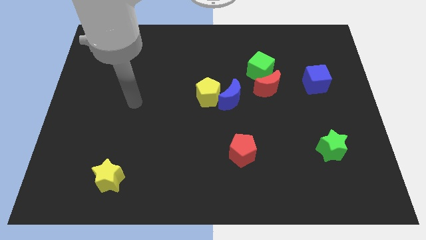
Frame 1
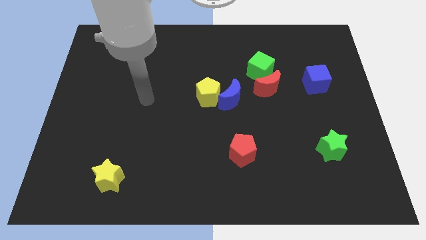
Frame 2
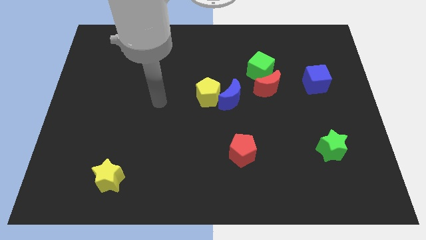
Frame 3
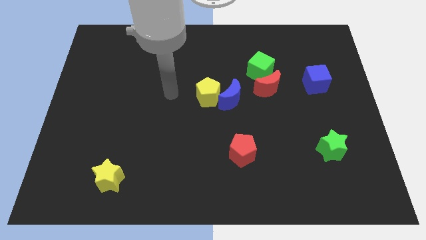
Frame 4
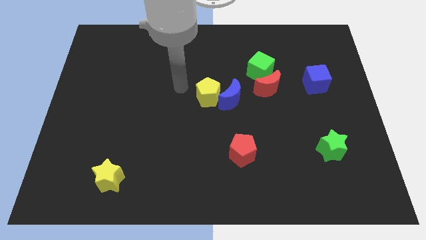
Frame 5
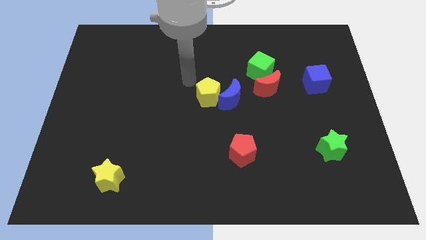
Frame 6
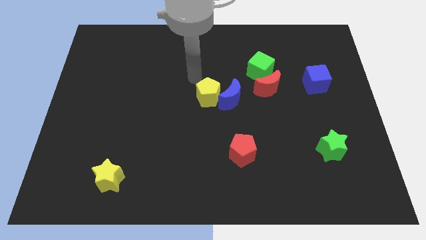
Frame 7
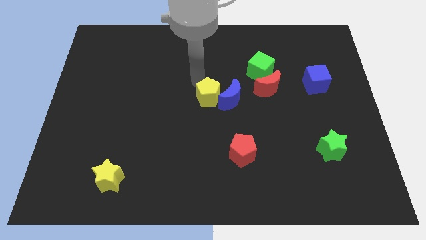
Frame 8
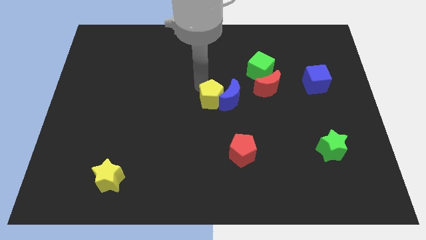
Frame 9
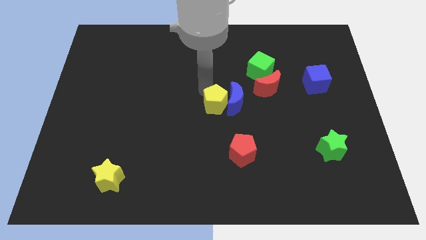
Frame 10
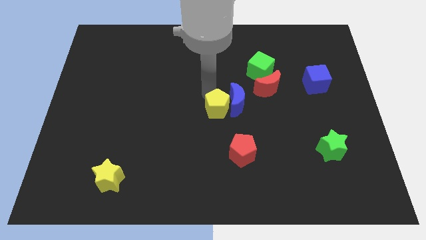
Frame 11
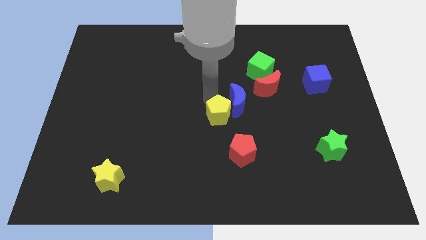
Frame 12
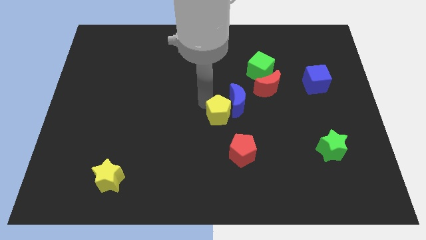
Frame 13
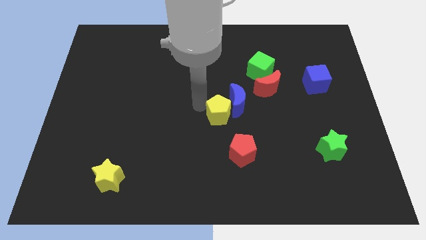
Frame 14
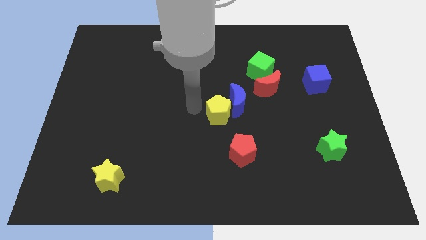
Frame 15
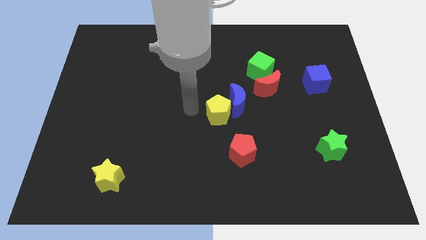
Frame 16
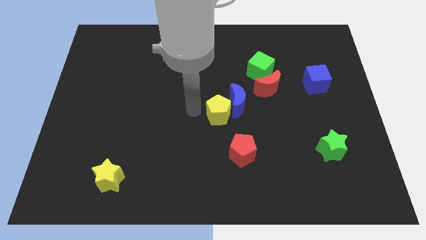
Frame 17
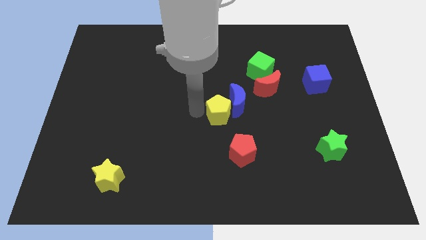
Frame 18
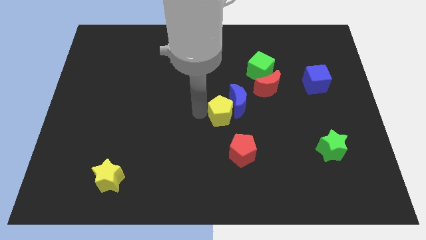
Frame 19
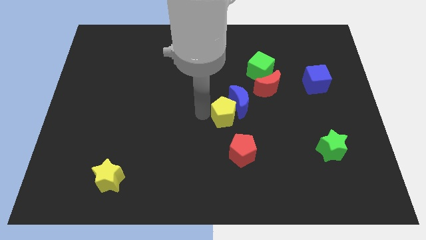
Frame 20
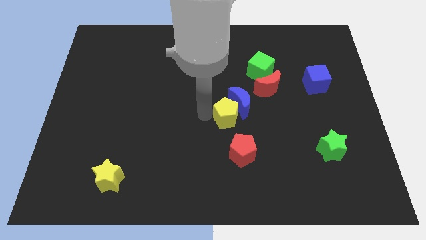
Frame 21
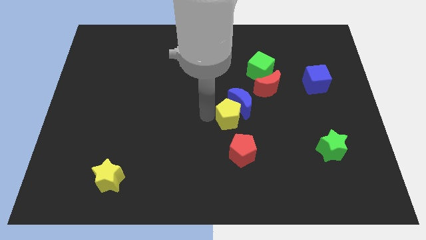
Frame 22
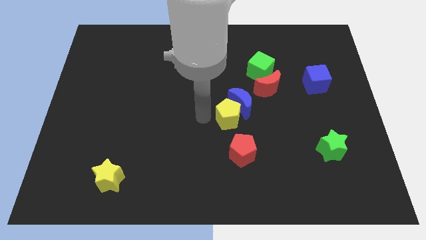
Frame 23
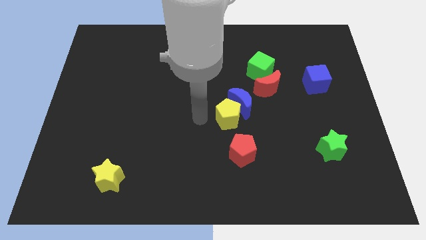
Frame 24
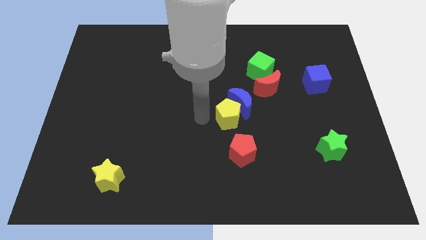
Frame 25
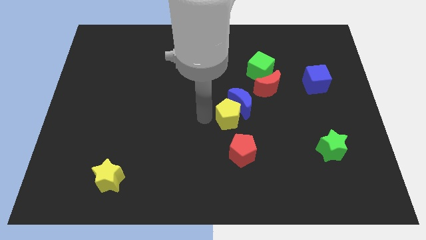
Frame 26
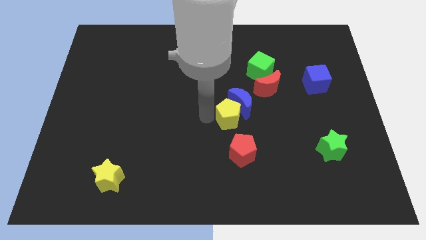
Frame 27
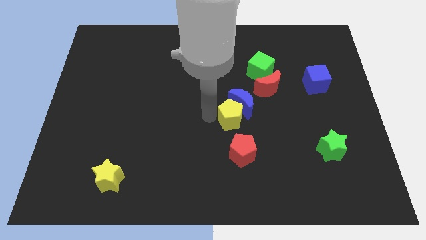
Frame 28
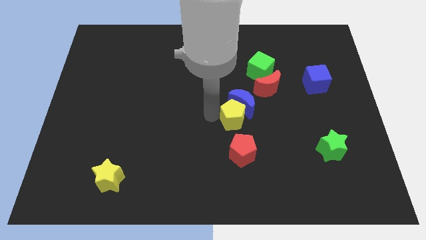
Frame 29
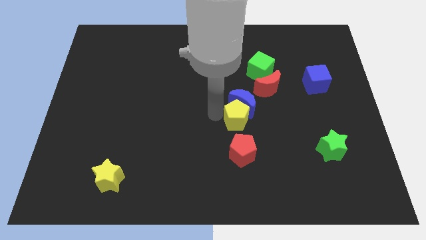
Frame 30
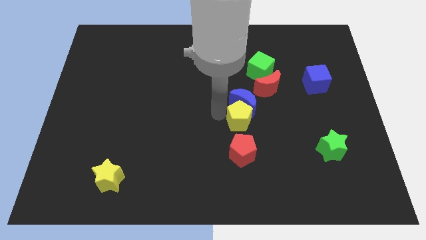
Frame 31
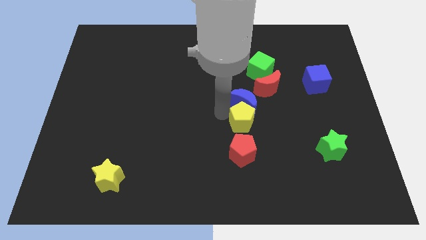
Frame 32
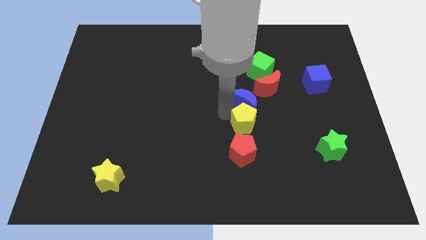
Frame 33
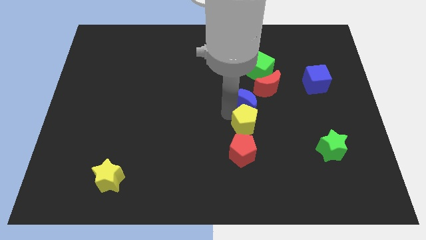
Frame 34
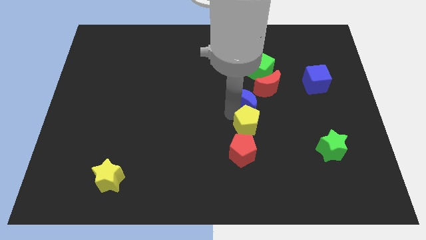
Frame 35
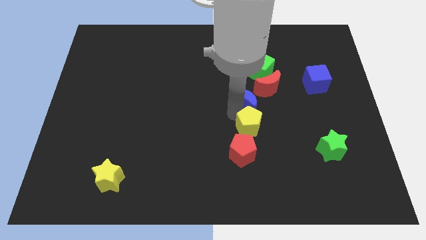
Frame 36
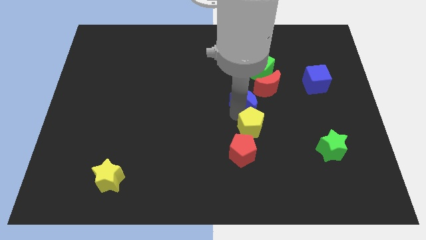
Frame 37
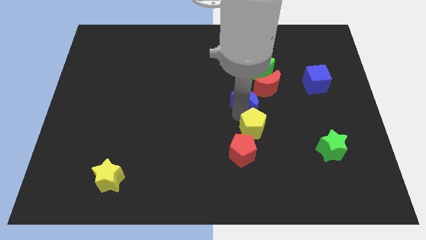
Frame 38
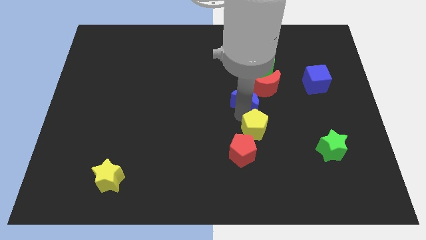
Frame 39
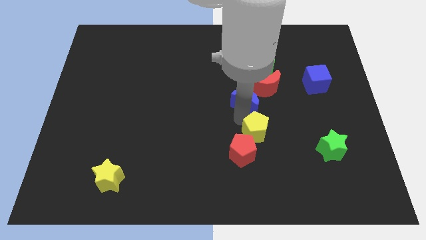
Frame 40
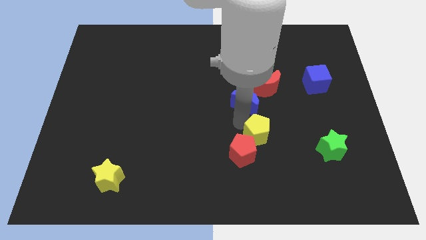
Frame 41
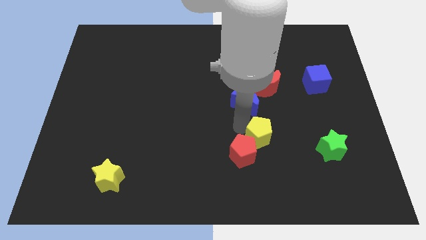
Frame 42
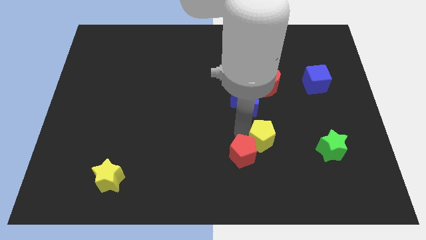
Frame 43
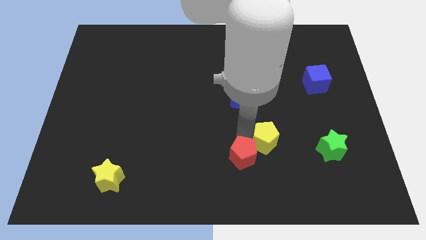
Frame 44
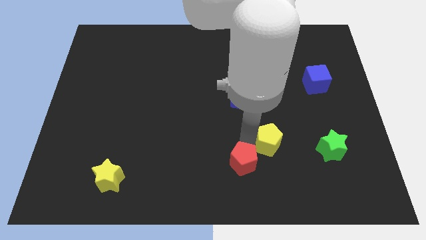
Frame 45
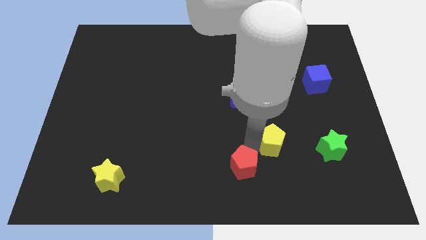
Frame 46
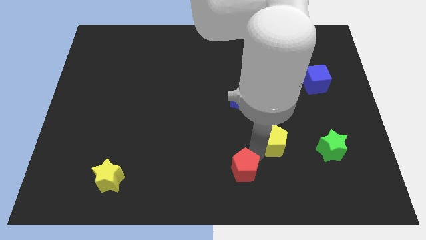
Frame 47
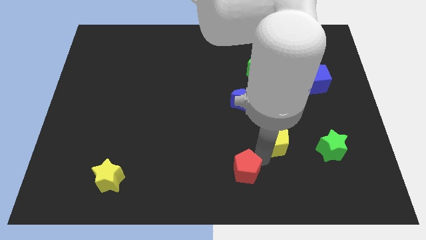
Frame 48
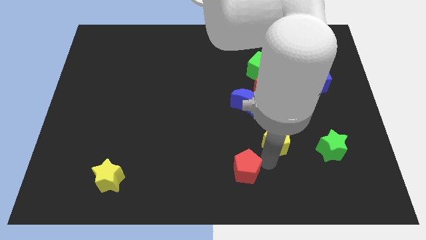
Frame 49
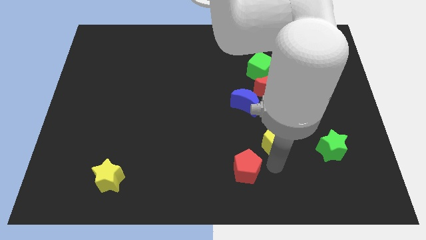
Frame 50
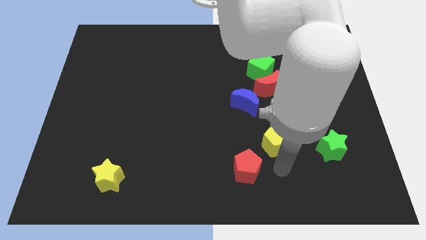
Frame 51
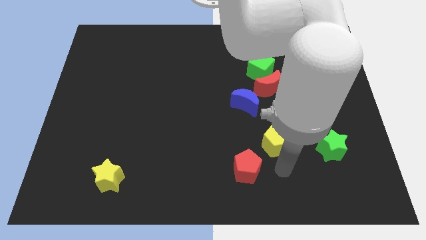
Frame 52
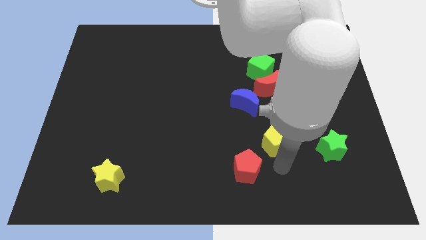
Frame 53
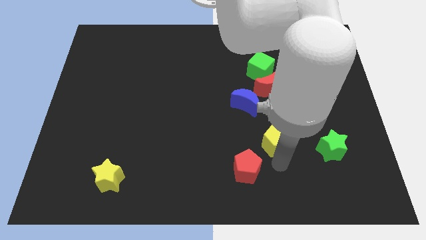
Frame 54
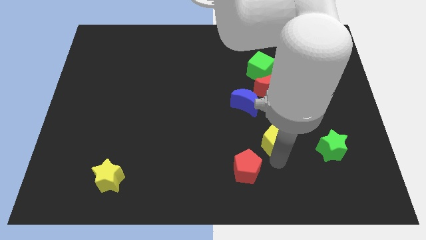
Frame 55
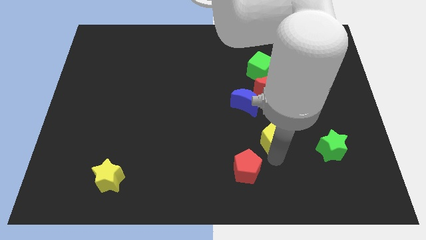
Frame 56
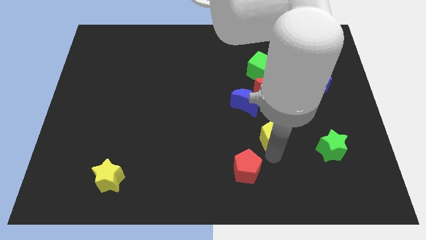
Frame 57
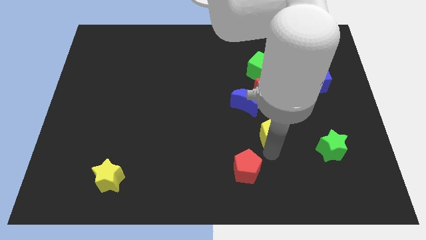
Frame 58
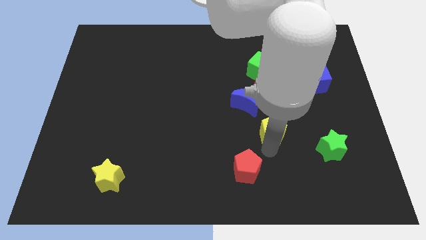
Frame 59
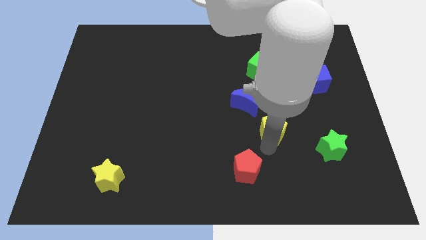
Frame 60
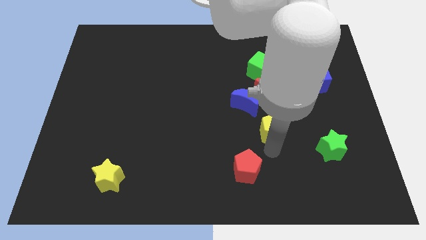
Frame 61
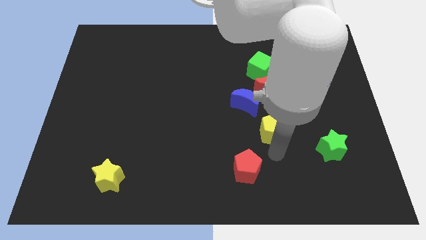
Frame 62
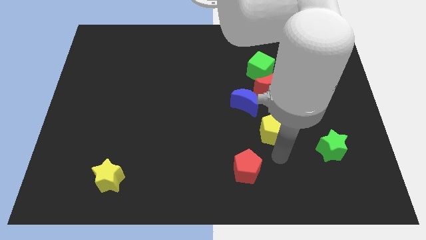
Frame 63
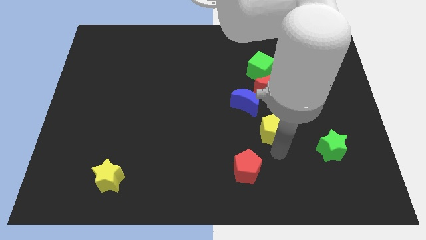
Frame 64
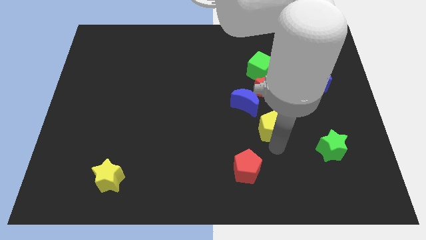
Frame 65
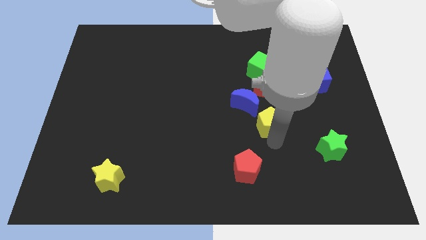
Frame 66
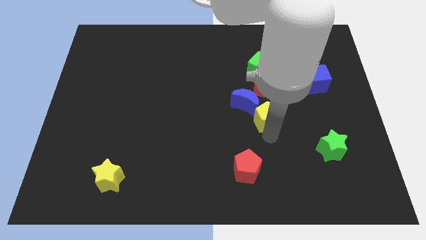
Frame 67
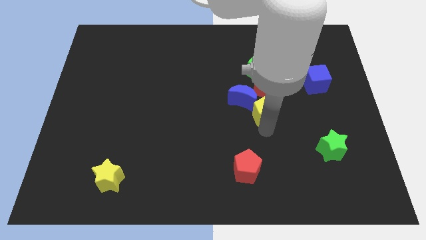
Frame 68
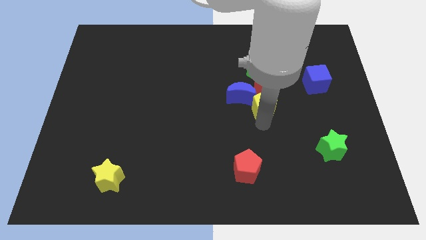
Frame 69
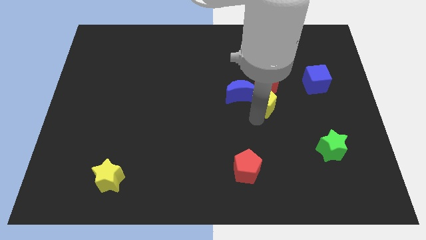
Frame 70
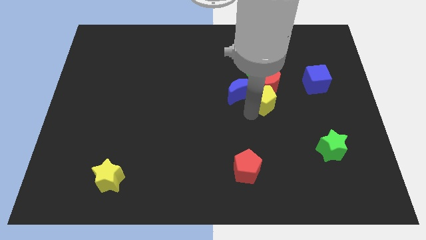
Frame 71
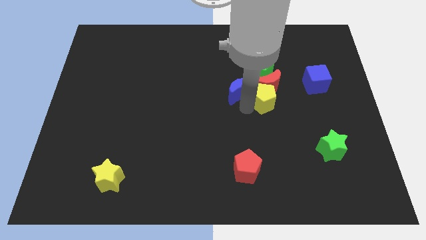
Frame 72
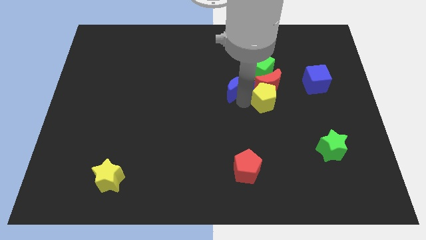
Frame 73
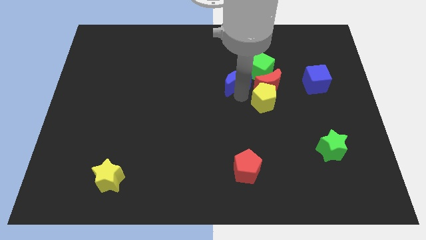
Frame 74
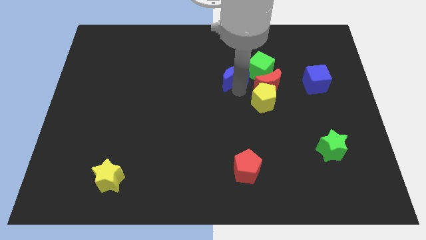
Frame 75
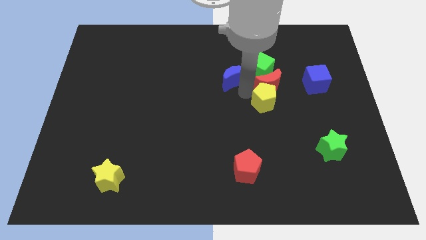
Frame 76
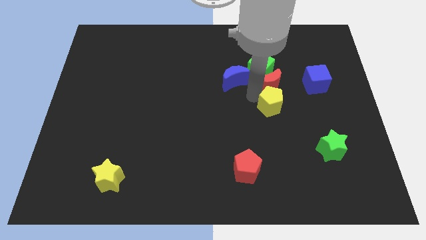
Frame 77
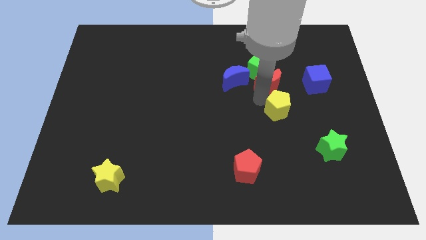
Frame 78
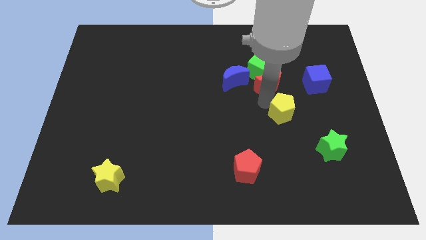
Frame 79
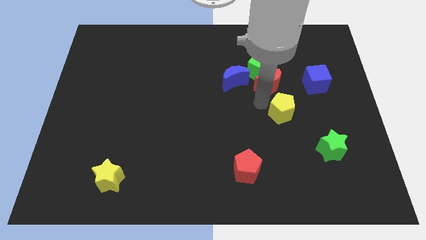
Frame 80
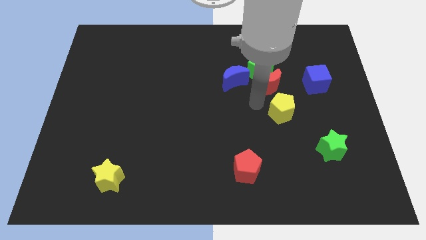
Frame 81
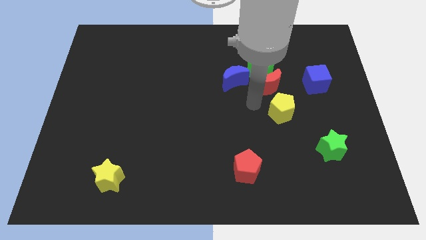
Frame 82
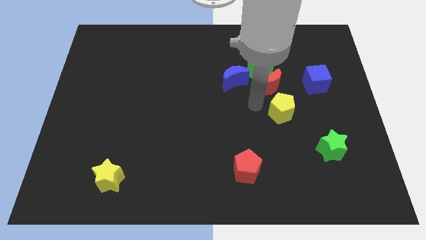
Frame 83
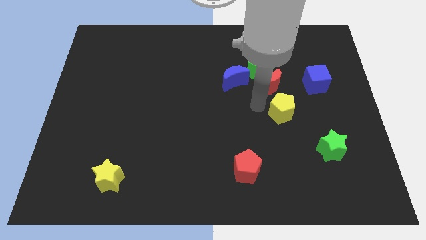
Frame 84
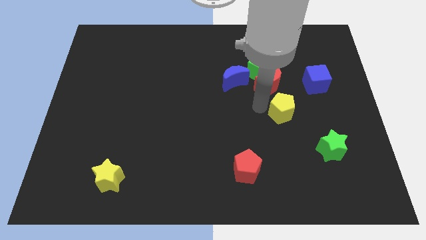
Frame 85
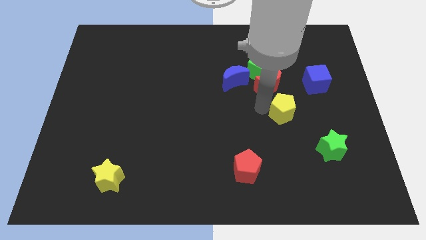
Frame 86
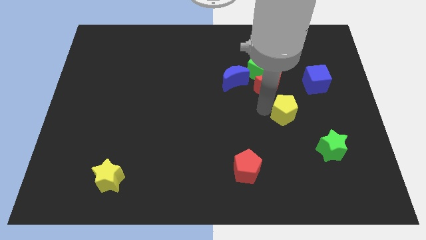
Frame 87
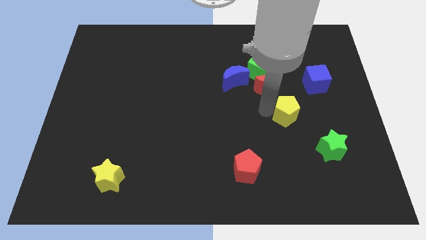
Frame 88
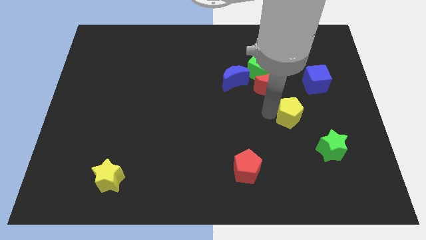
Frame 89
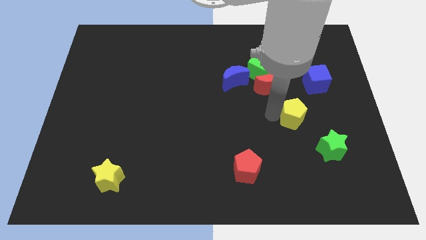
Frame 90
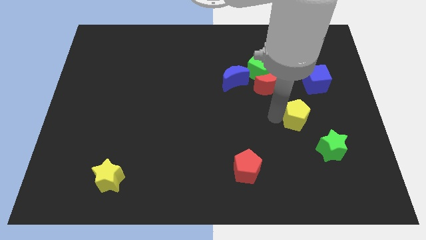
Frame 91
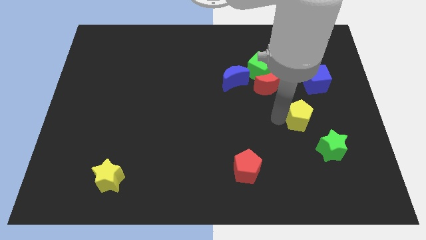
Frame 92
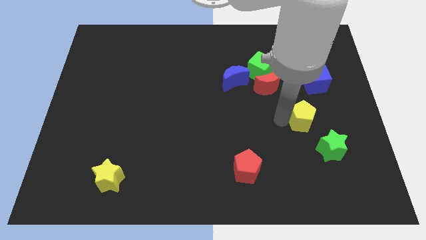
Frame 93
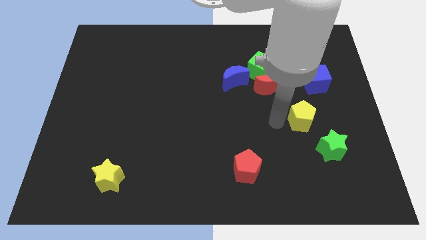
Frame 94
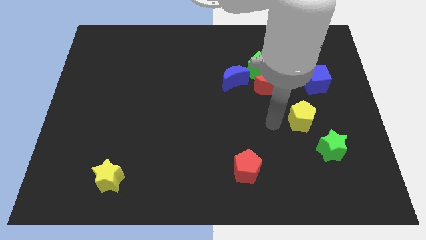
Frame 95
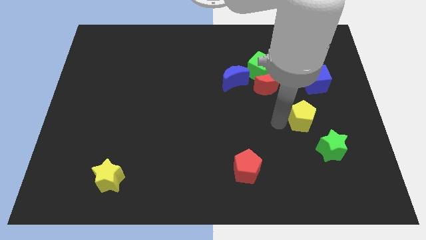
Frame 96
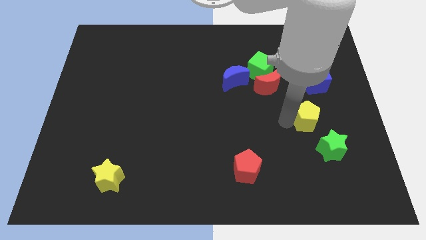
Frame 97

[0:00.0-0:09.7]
slide the yellow pentagon below the blue cube
